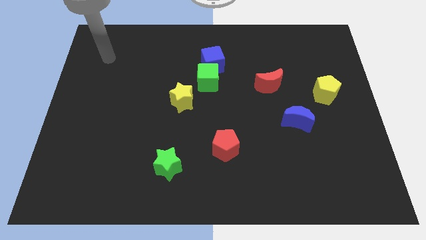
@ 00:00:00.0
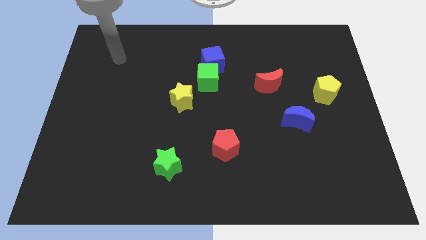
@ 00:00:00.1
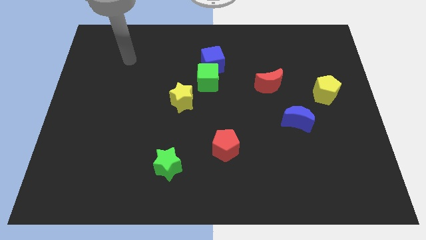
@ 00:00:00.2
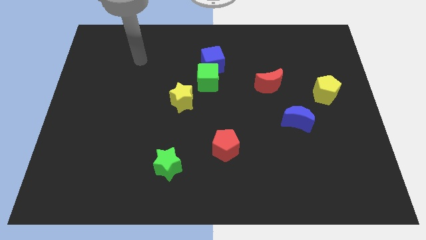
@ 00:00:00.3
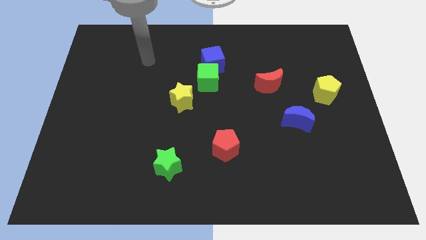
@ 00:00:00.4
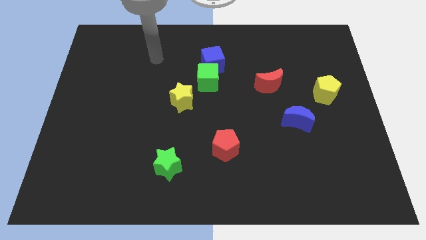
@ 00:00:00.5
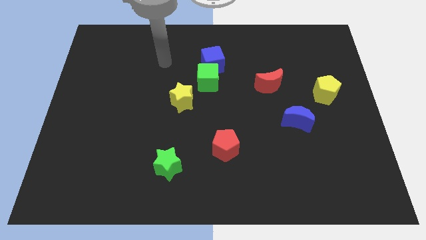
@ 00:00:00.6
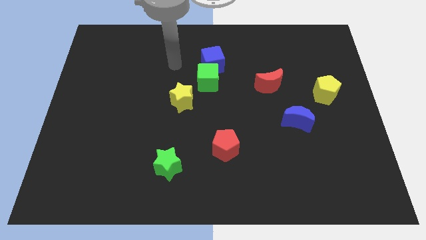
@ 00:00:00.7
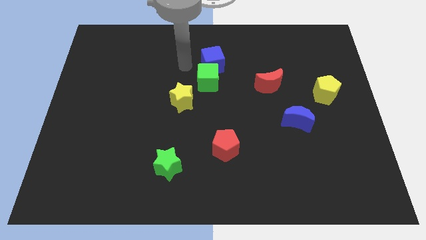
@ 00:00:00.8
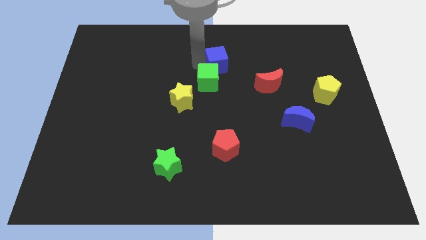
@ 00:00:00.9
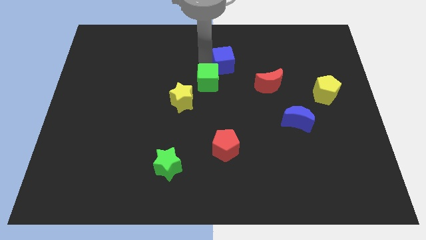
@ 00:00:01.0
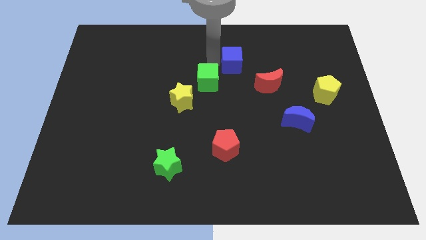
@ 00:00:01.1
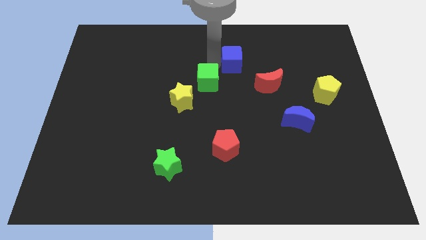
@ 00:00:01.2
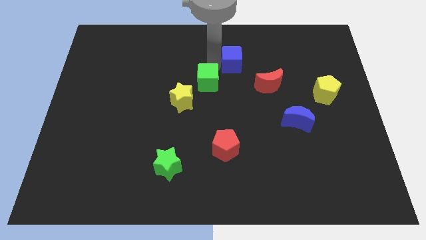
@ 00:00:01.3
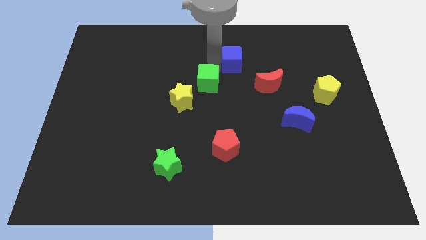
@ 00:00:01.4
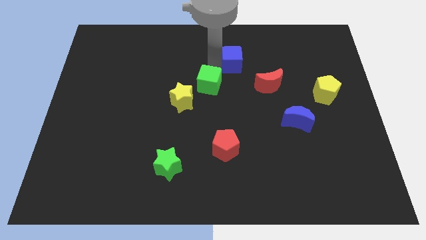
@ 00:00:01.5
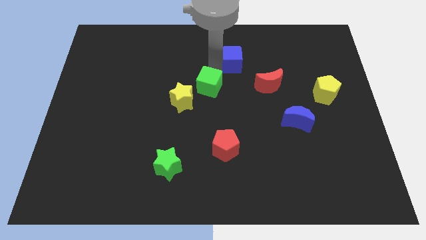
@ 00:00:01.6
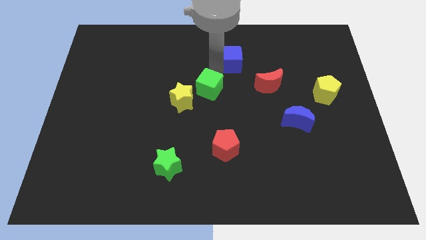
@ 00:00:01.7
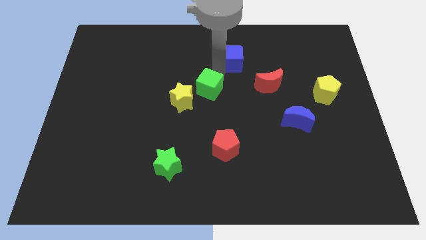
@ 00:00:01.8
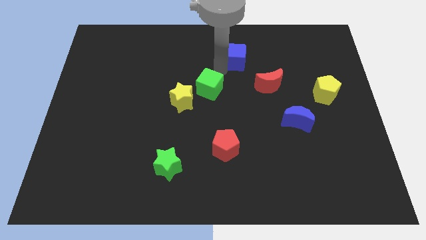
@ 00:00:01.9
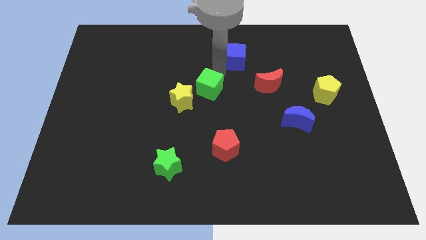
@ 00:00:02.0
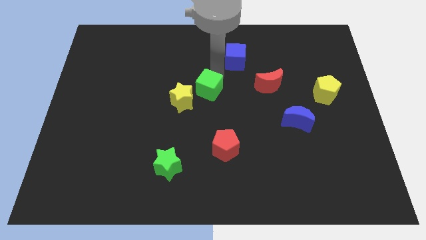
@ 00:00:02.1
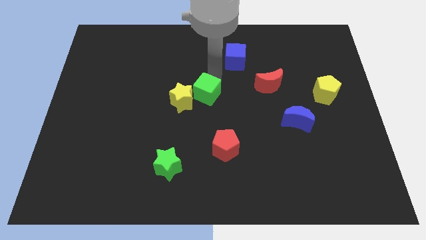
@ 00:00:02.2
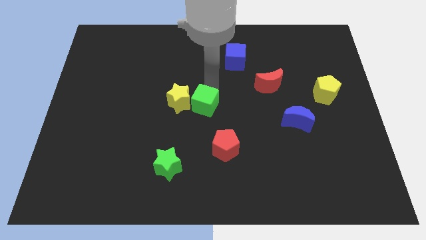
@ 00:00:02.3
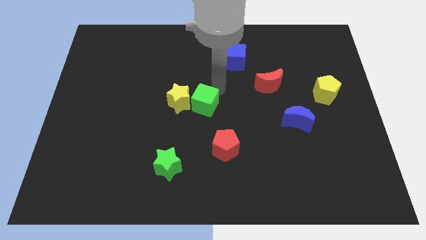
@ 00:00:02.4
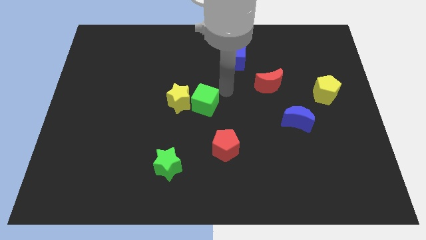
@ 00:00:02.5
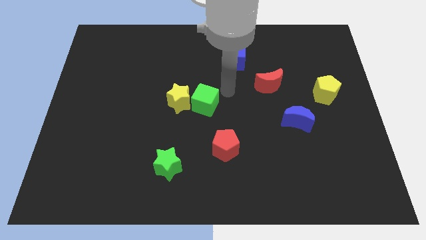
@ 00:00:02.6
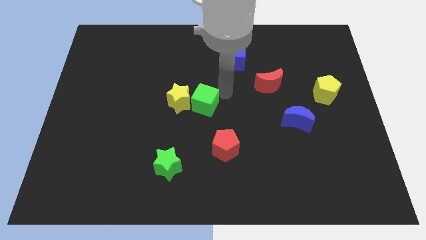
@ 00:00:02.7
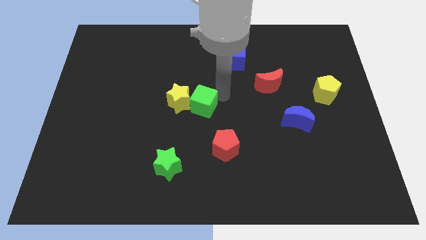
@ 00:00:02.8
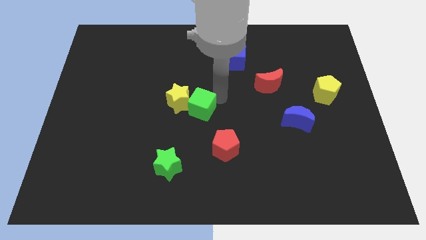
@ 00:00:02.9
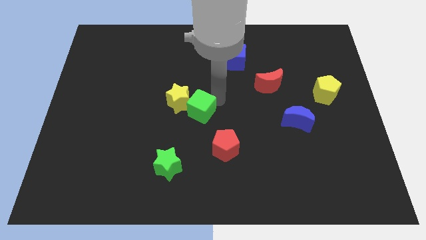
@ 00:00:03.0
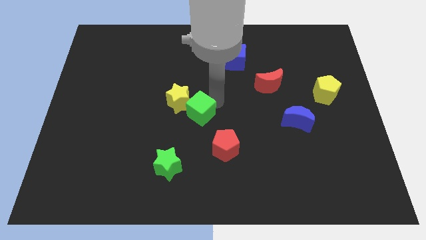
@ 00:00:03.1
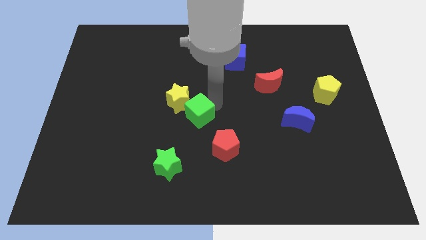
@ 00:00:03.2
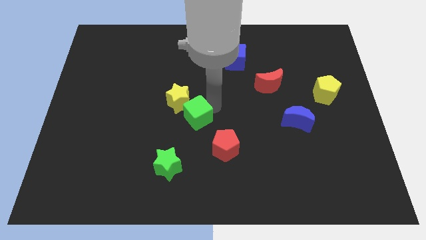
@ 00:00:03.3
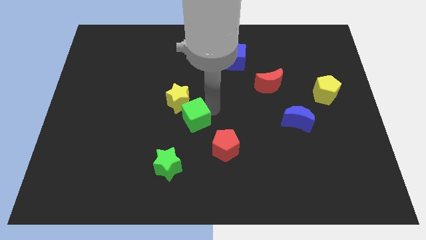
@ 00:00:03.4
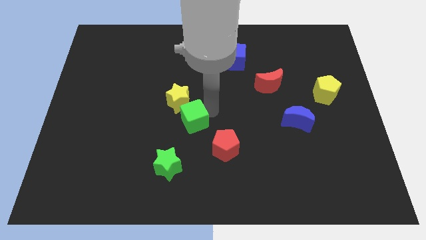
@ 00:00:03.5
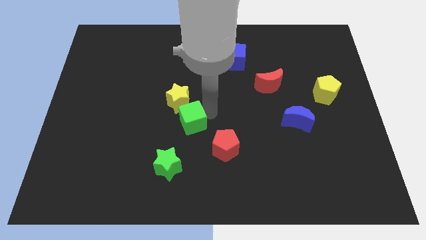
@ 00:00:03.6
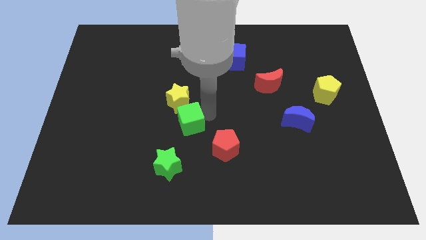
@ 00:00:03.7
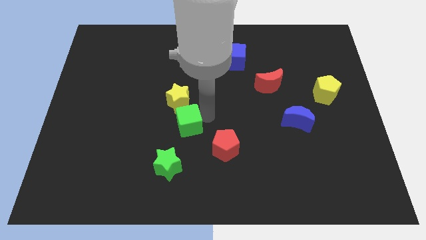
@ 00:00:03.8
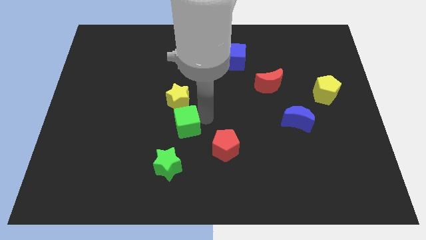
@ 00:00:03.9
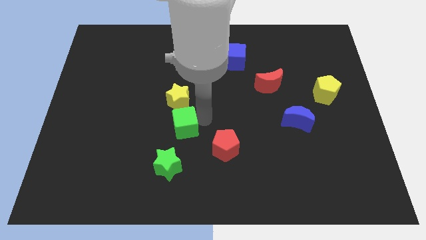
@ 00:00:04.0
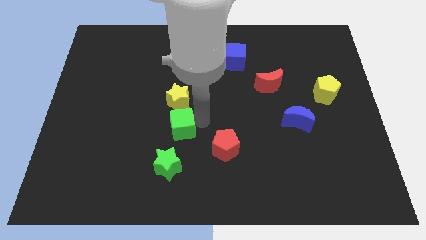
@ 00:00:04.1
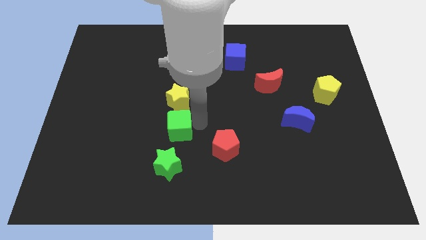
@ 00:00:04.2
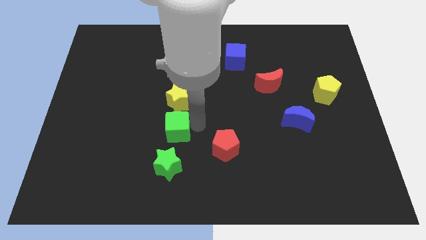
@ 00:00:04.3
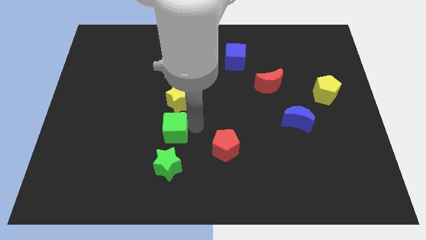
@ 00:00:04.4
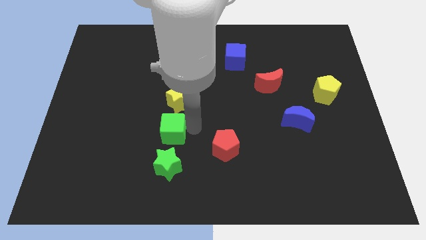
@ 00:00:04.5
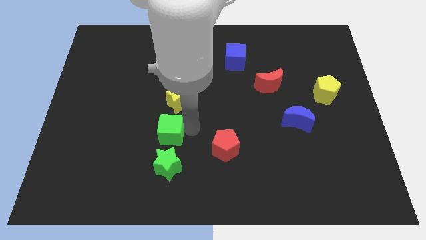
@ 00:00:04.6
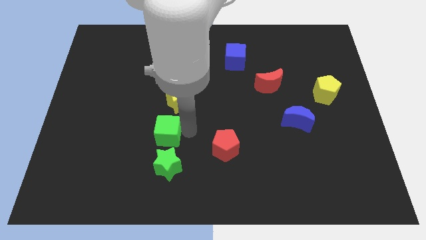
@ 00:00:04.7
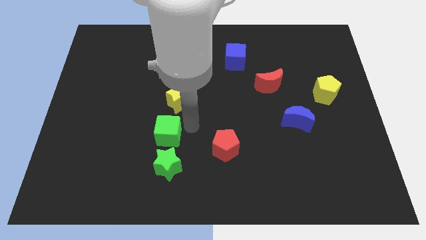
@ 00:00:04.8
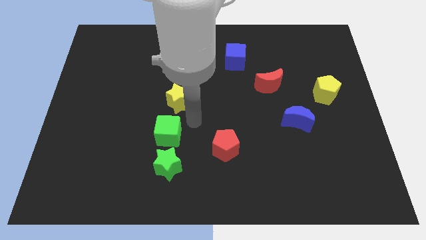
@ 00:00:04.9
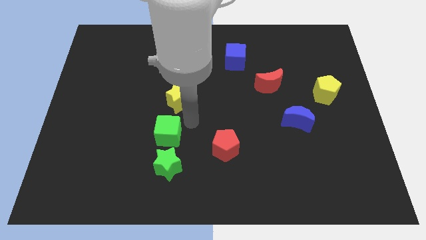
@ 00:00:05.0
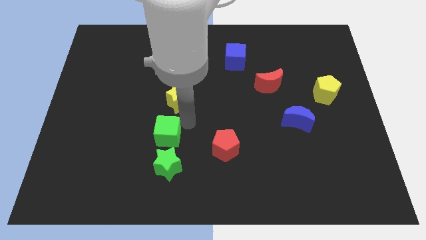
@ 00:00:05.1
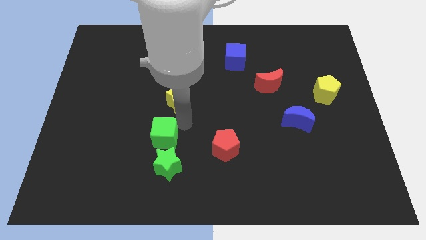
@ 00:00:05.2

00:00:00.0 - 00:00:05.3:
push the green cube to the top left of the green star

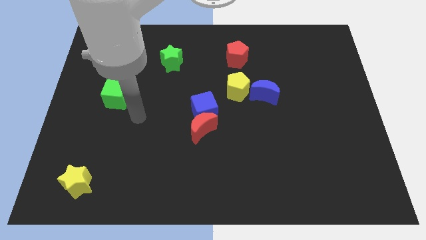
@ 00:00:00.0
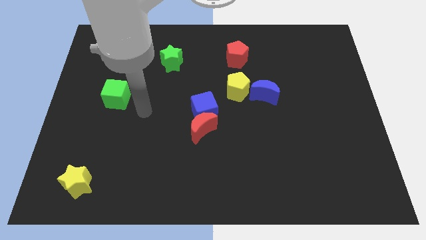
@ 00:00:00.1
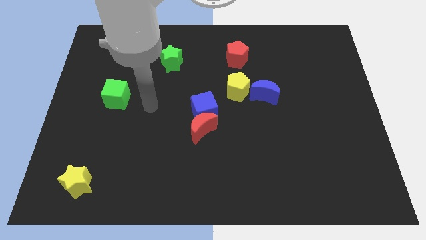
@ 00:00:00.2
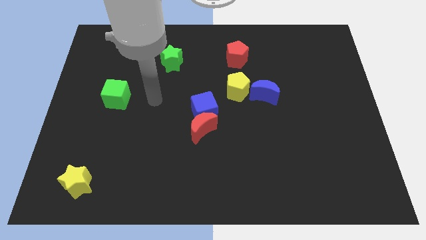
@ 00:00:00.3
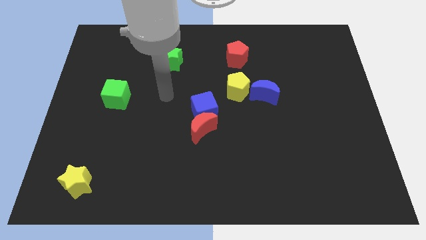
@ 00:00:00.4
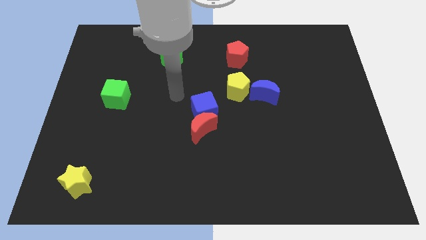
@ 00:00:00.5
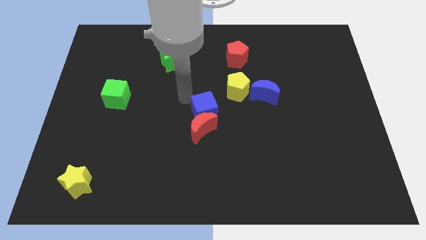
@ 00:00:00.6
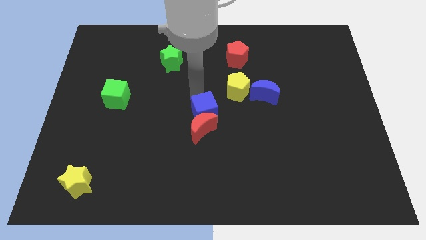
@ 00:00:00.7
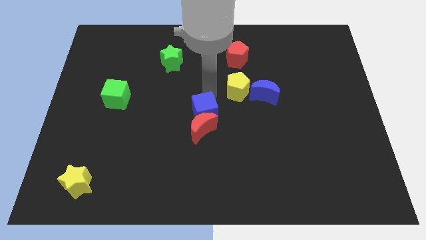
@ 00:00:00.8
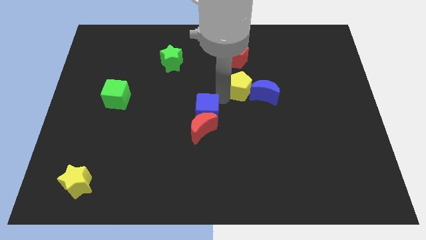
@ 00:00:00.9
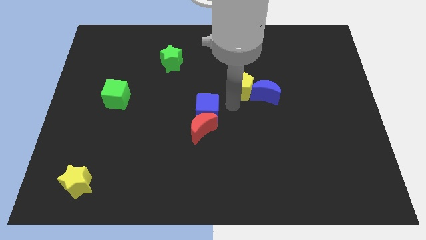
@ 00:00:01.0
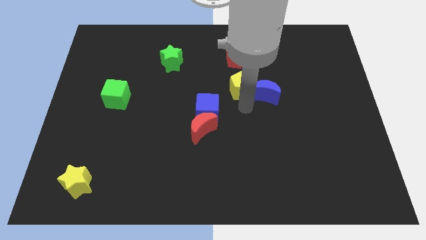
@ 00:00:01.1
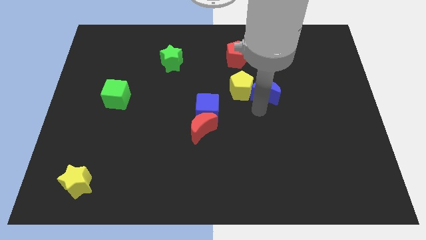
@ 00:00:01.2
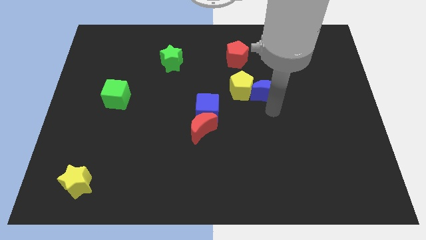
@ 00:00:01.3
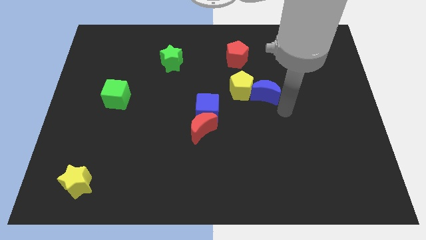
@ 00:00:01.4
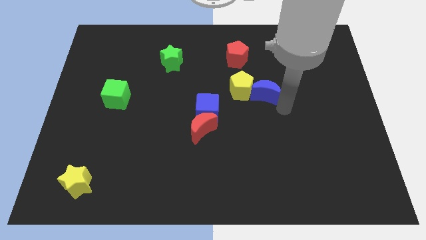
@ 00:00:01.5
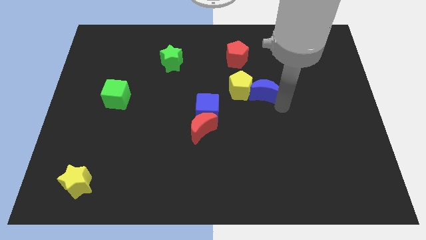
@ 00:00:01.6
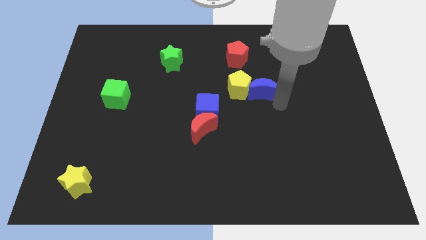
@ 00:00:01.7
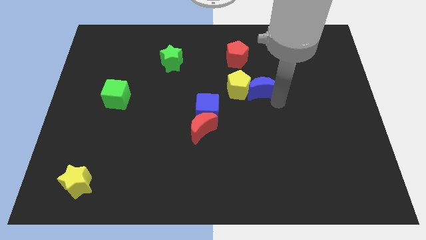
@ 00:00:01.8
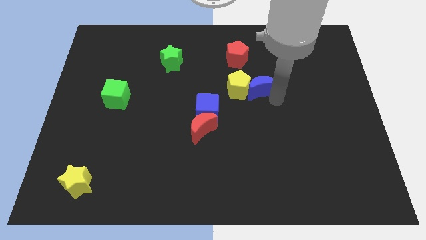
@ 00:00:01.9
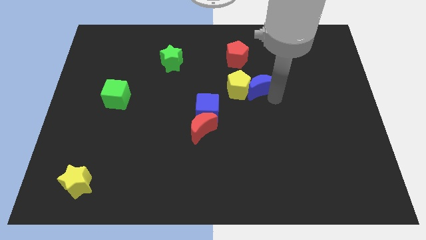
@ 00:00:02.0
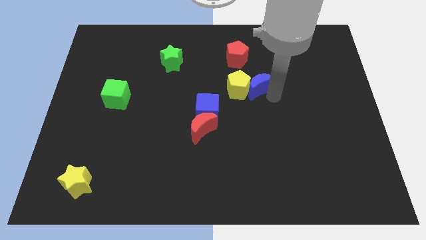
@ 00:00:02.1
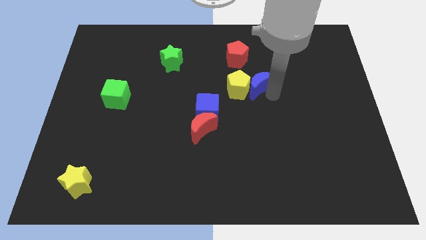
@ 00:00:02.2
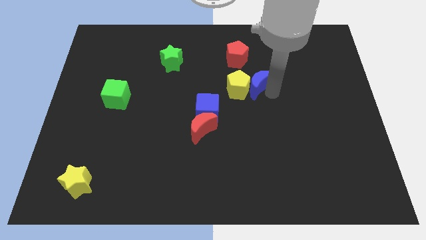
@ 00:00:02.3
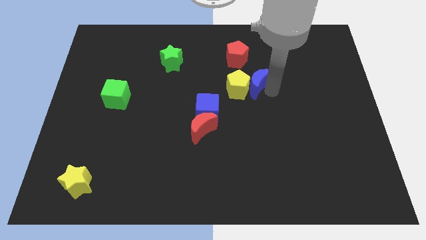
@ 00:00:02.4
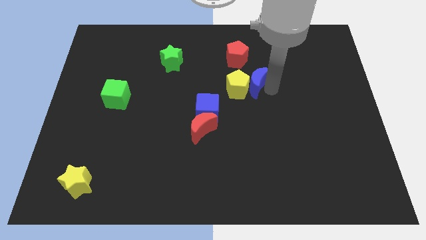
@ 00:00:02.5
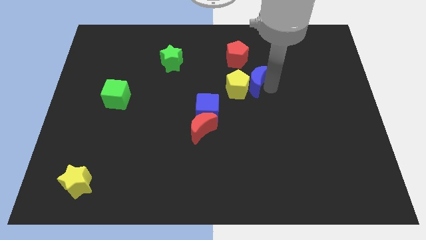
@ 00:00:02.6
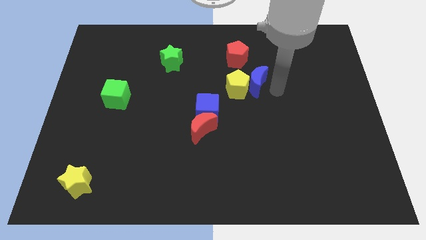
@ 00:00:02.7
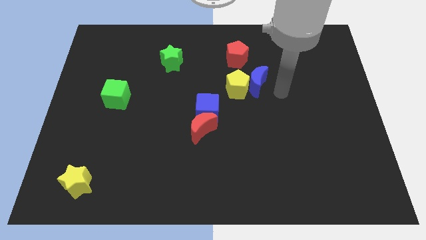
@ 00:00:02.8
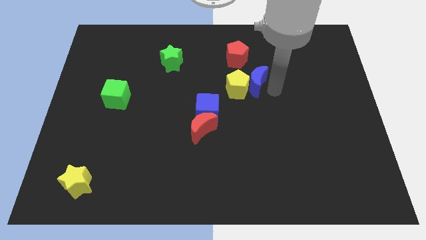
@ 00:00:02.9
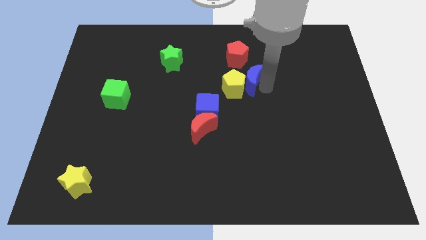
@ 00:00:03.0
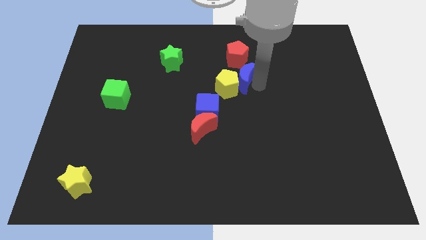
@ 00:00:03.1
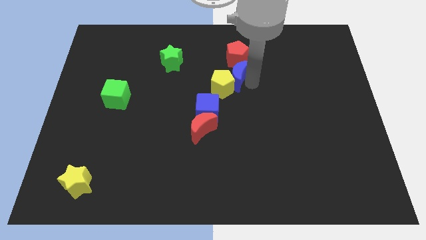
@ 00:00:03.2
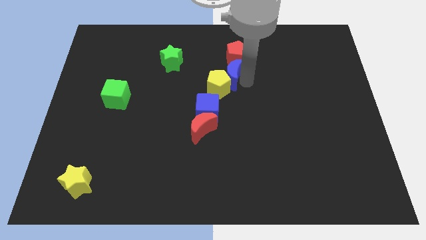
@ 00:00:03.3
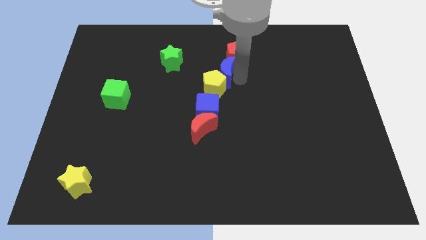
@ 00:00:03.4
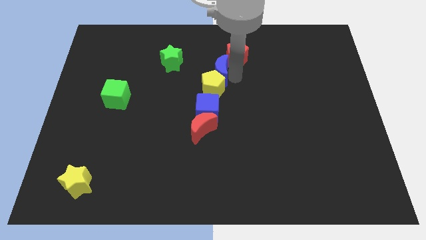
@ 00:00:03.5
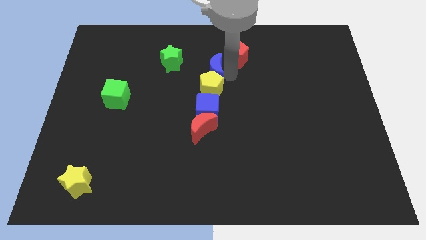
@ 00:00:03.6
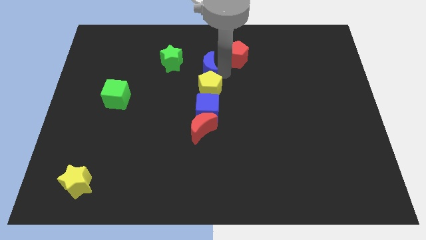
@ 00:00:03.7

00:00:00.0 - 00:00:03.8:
move the blue moon to the bottom right of the green star
